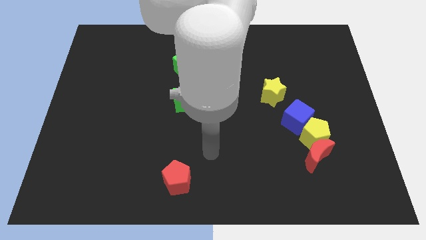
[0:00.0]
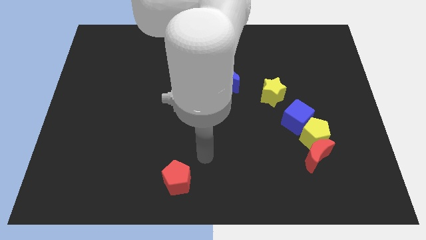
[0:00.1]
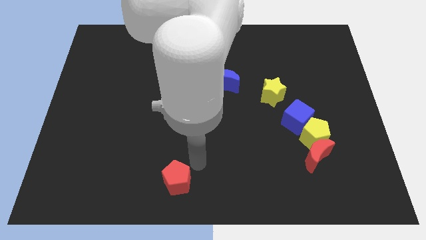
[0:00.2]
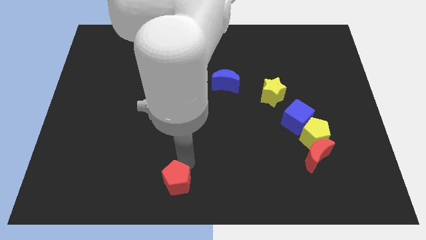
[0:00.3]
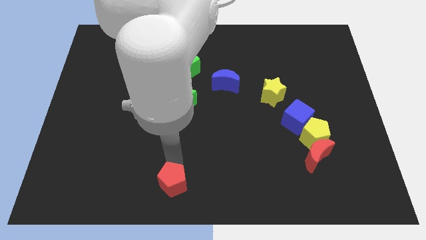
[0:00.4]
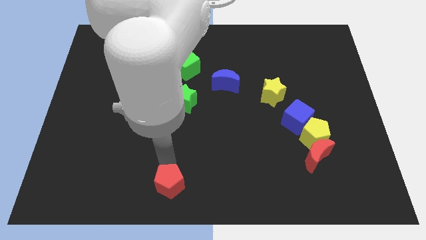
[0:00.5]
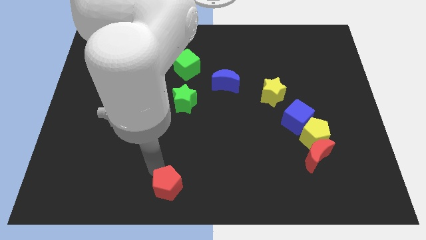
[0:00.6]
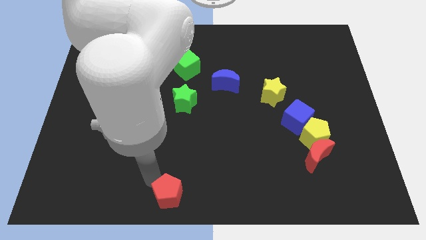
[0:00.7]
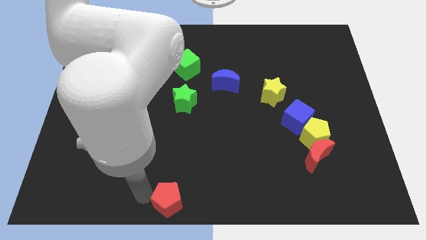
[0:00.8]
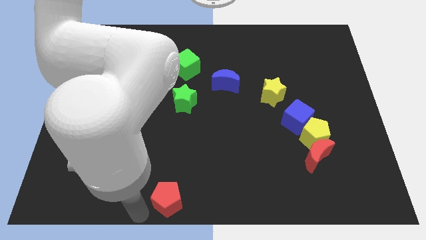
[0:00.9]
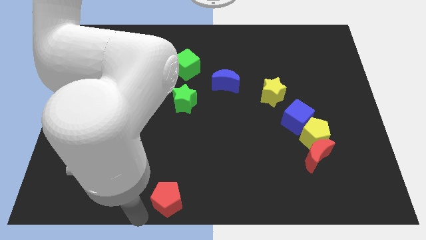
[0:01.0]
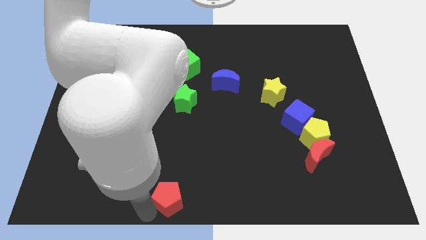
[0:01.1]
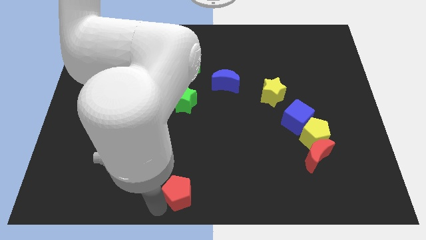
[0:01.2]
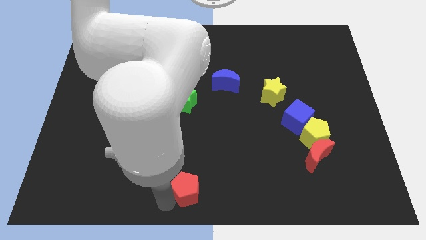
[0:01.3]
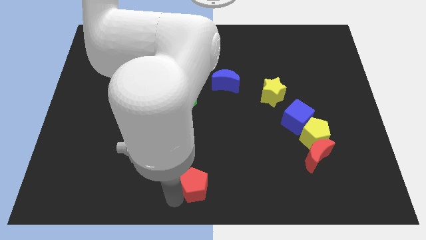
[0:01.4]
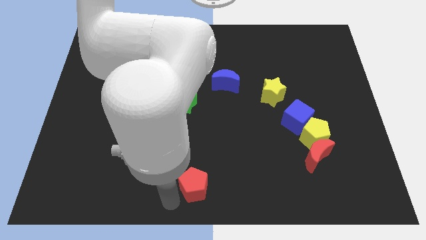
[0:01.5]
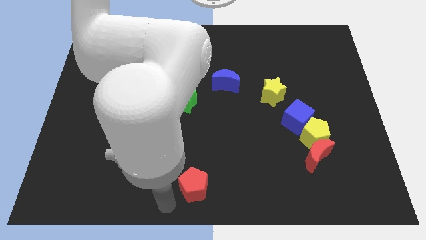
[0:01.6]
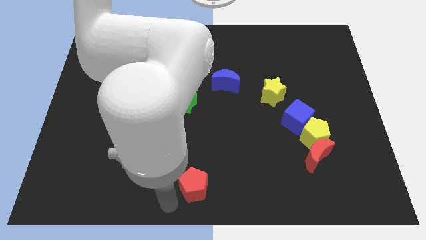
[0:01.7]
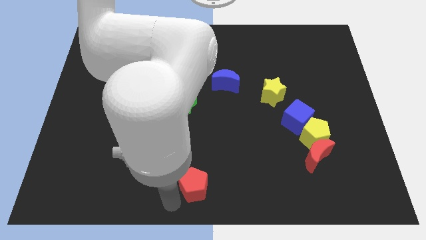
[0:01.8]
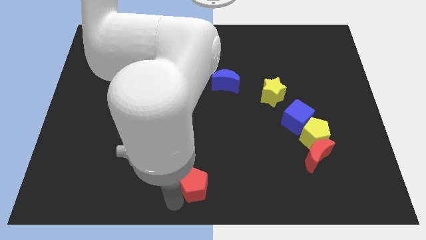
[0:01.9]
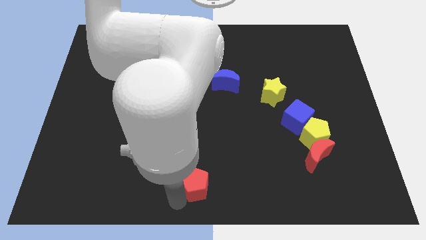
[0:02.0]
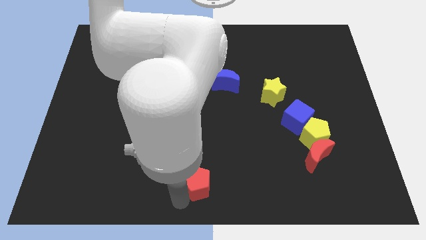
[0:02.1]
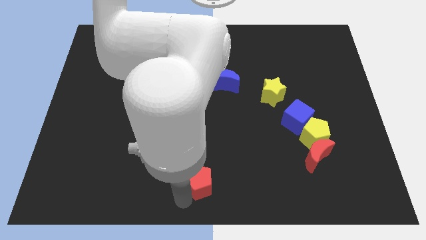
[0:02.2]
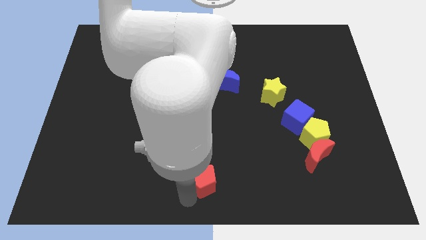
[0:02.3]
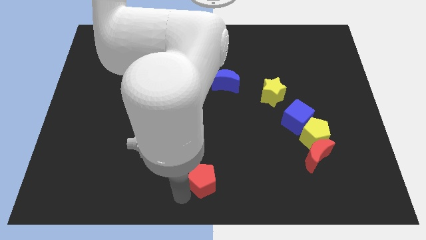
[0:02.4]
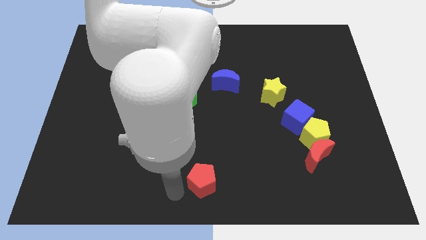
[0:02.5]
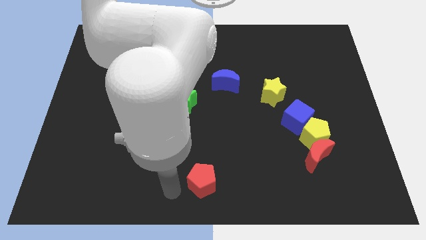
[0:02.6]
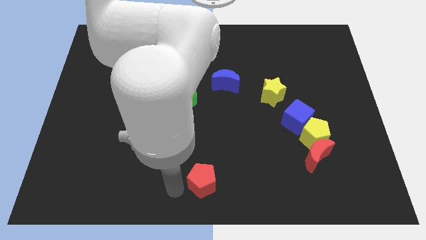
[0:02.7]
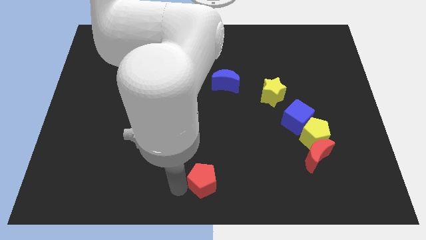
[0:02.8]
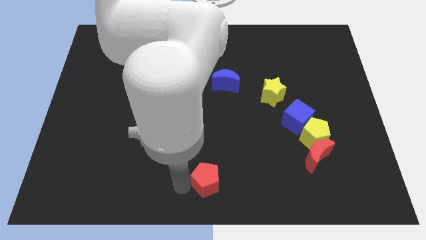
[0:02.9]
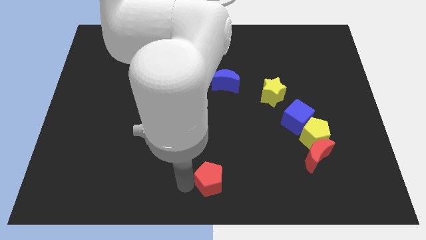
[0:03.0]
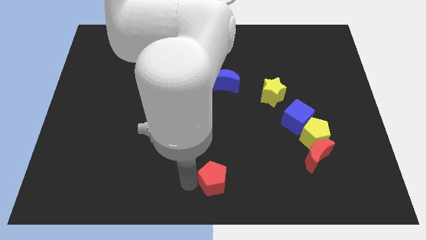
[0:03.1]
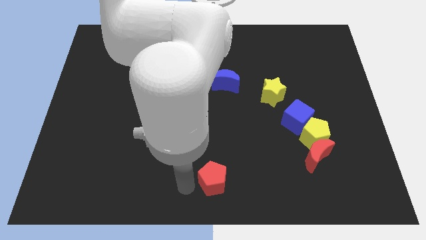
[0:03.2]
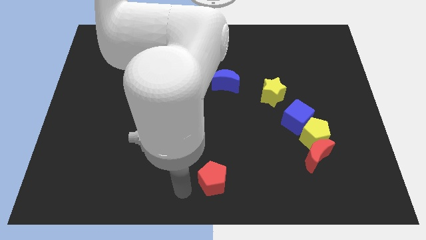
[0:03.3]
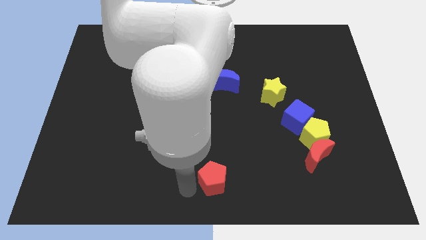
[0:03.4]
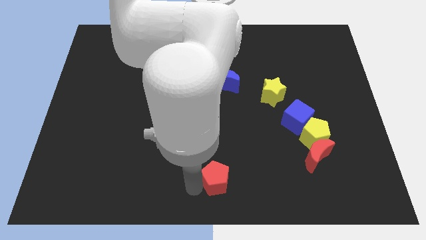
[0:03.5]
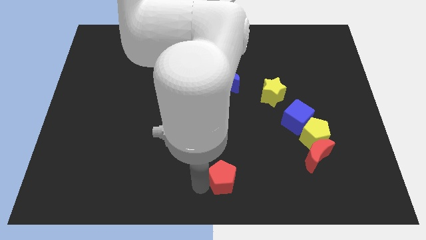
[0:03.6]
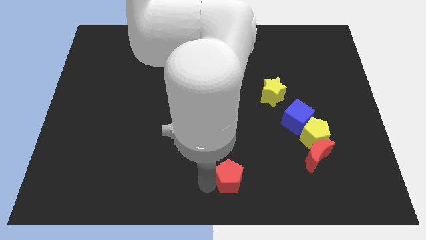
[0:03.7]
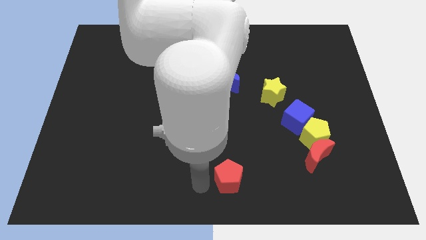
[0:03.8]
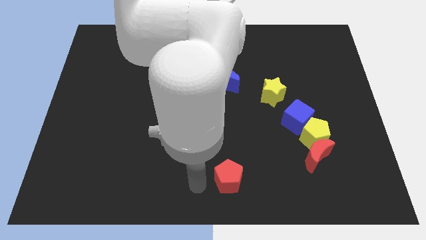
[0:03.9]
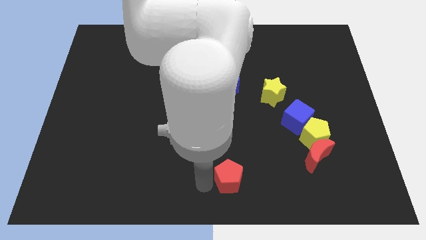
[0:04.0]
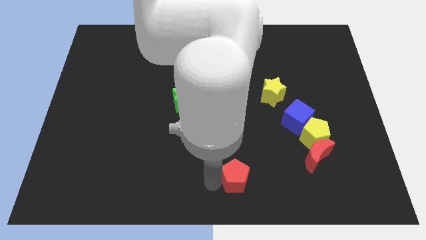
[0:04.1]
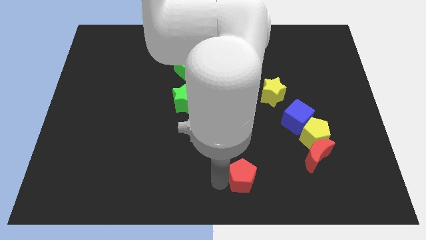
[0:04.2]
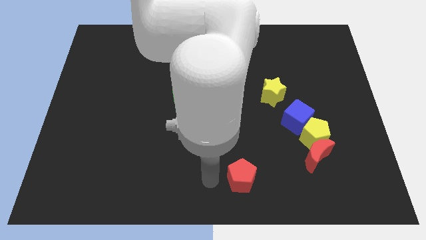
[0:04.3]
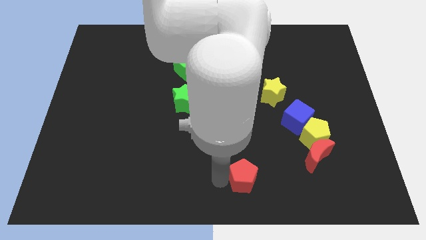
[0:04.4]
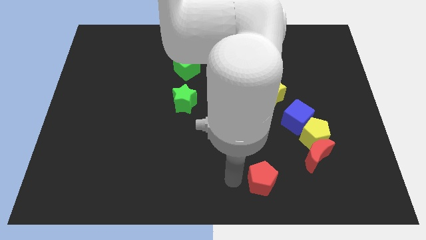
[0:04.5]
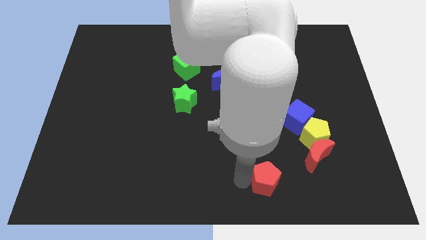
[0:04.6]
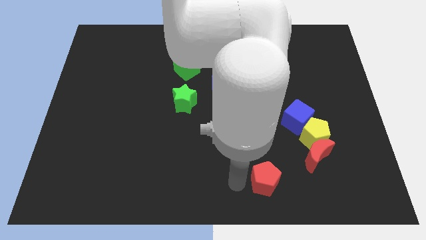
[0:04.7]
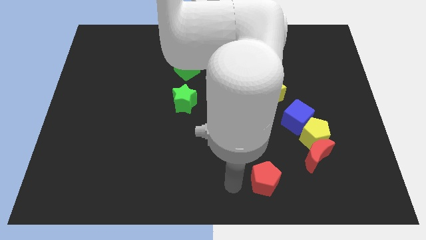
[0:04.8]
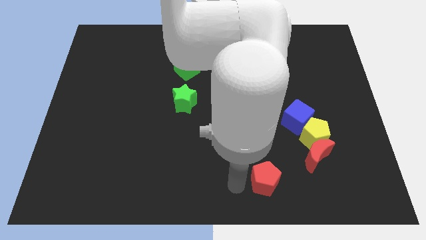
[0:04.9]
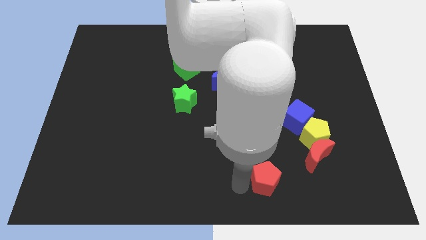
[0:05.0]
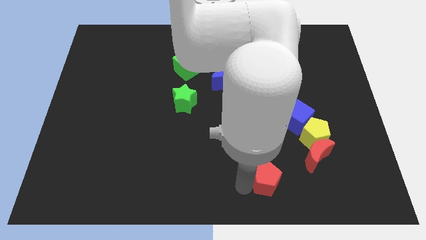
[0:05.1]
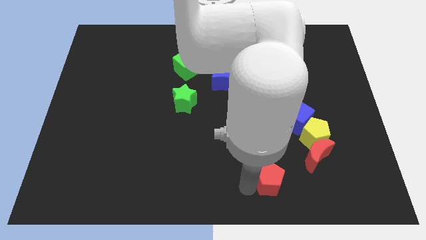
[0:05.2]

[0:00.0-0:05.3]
push the red pentagon to the bottom left side of the red moon

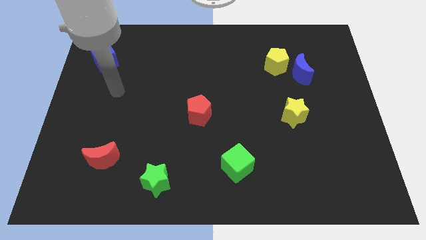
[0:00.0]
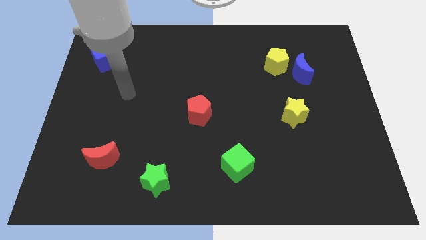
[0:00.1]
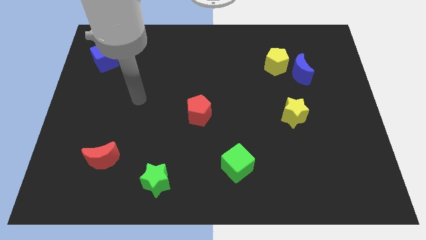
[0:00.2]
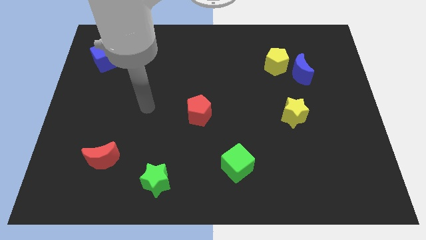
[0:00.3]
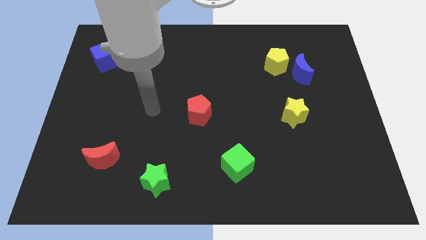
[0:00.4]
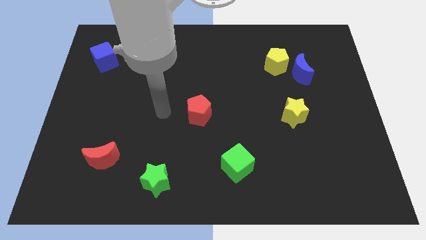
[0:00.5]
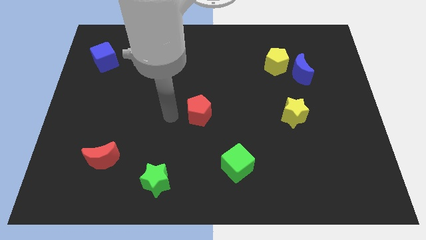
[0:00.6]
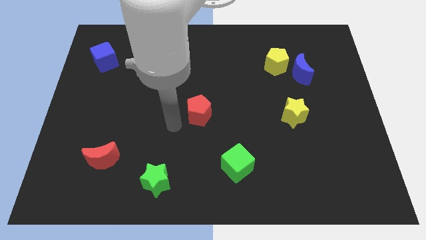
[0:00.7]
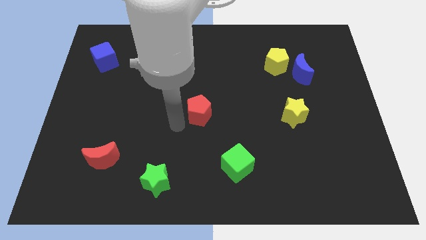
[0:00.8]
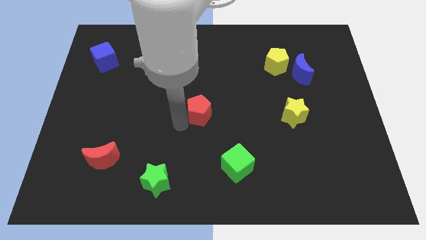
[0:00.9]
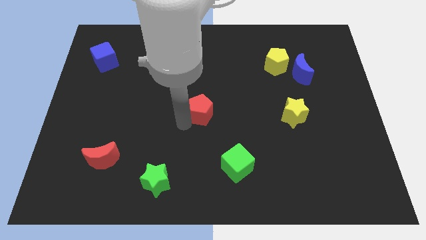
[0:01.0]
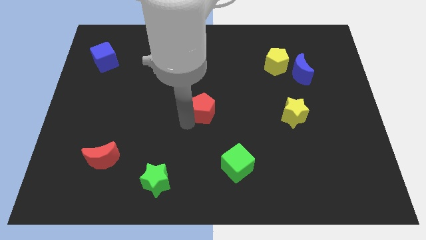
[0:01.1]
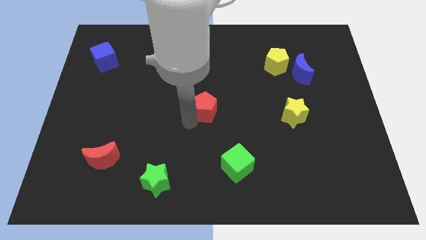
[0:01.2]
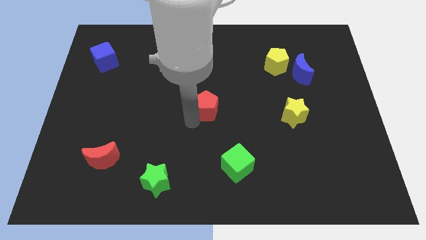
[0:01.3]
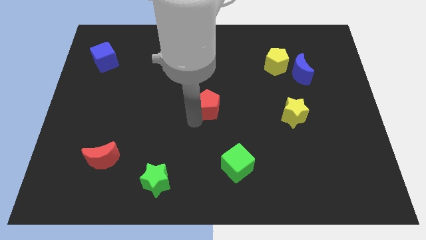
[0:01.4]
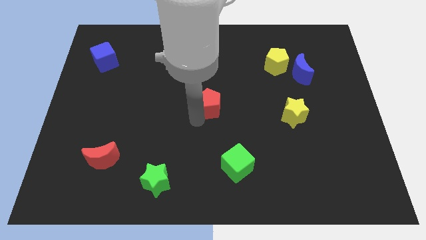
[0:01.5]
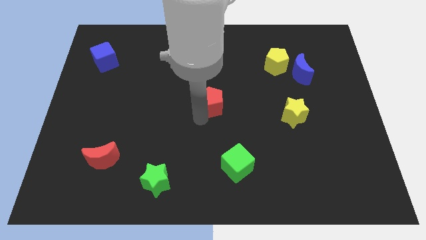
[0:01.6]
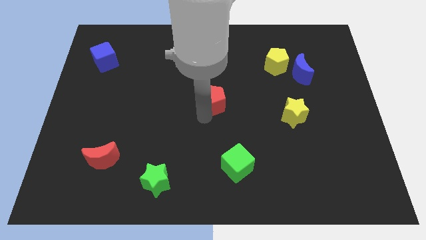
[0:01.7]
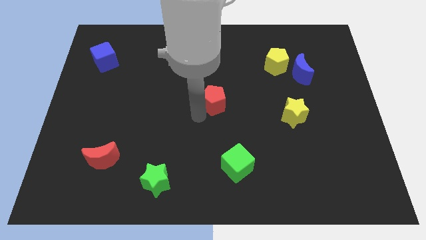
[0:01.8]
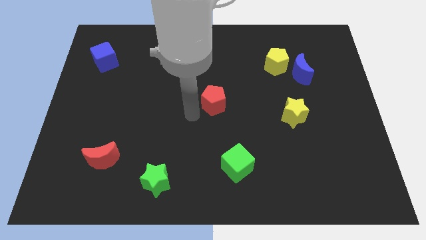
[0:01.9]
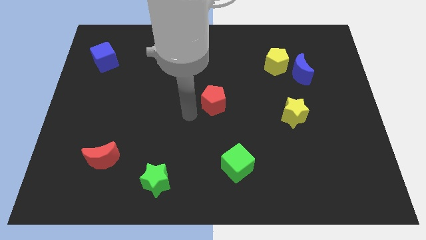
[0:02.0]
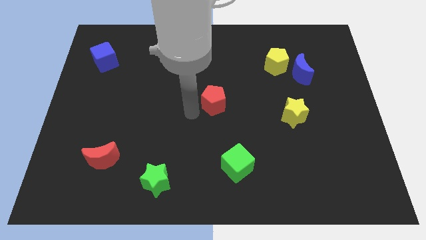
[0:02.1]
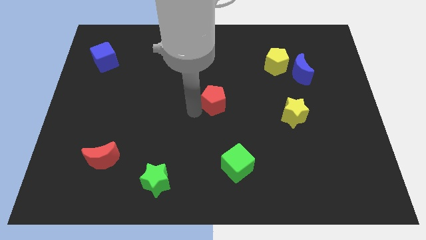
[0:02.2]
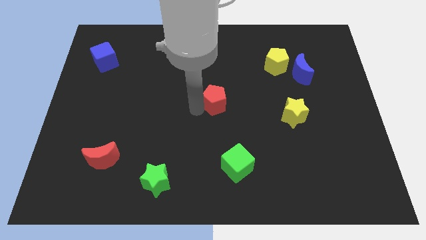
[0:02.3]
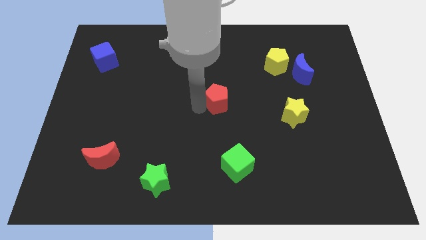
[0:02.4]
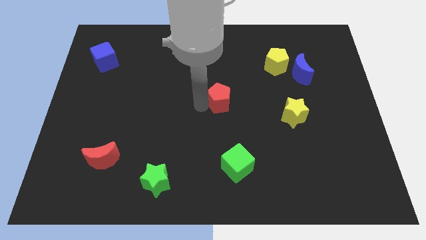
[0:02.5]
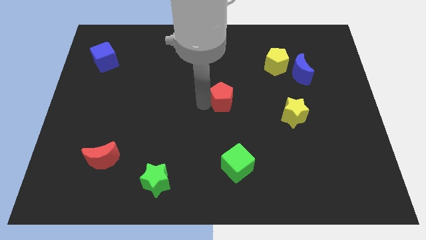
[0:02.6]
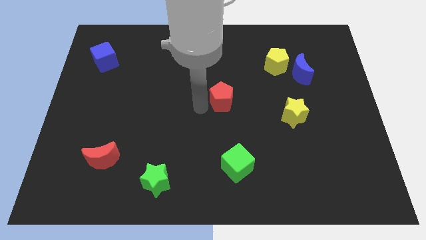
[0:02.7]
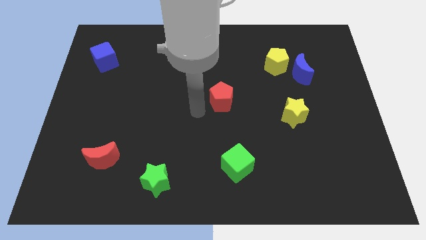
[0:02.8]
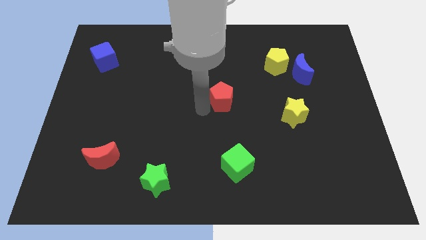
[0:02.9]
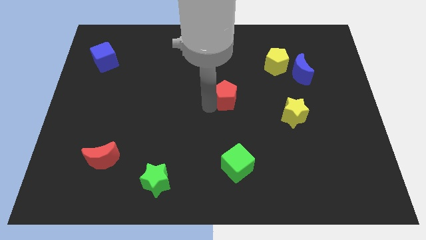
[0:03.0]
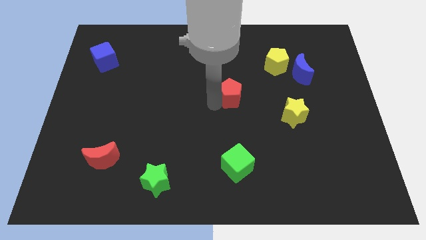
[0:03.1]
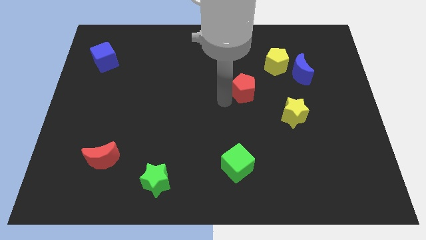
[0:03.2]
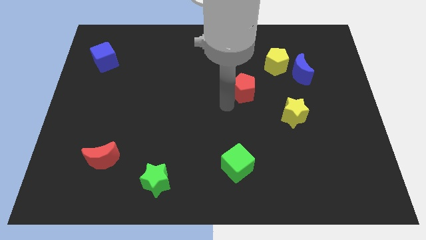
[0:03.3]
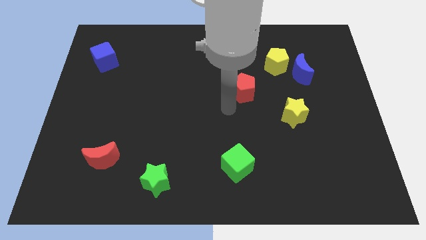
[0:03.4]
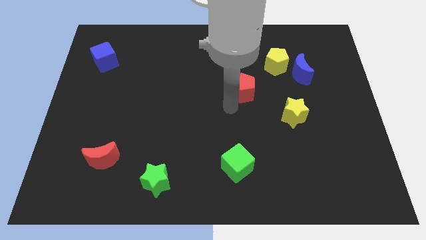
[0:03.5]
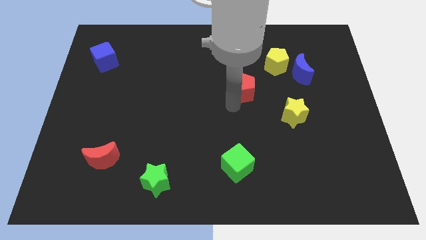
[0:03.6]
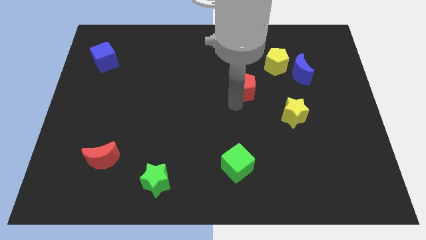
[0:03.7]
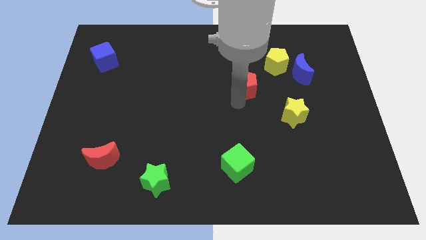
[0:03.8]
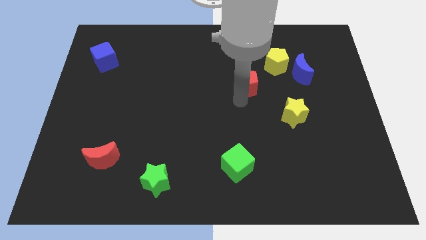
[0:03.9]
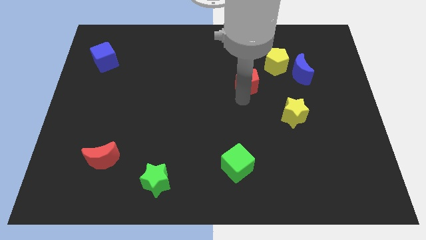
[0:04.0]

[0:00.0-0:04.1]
put the red pentagon left of the blue moon
